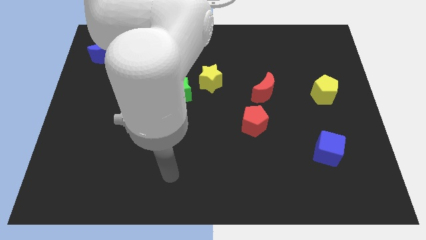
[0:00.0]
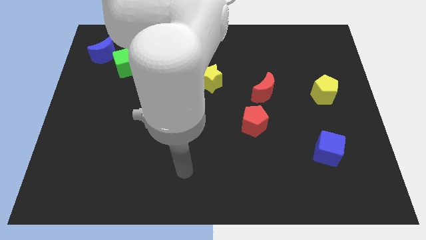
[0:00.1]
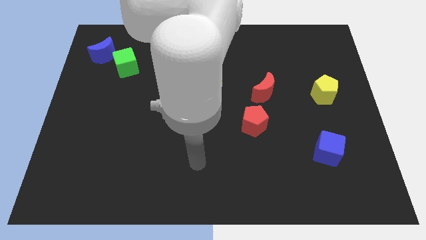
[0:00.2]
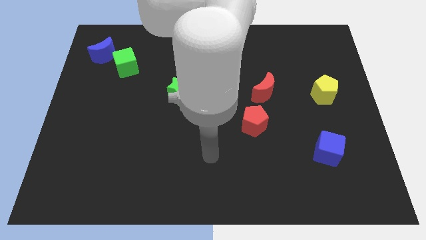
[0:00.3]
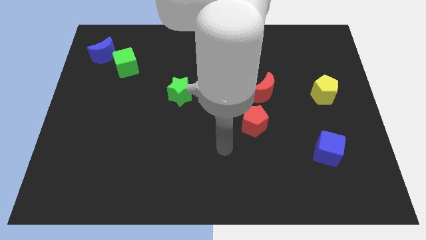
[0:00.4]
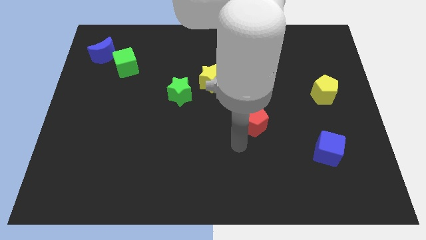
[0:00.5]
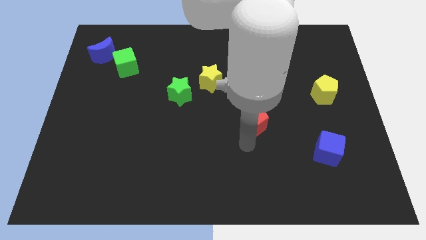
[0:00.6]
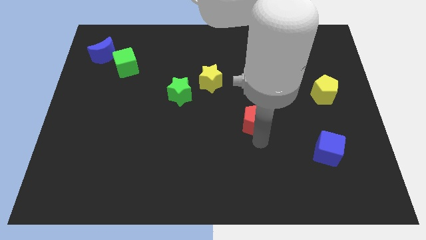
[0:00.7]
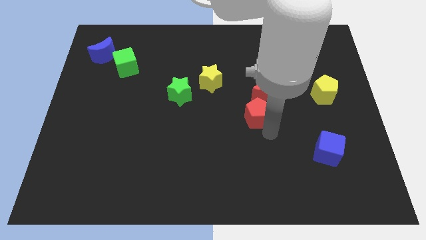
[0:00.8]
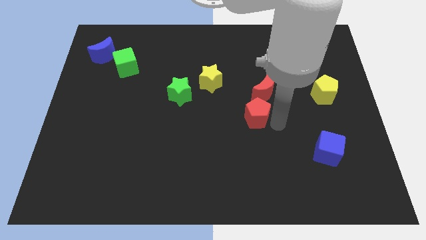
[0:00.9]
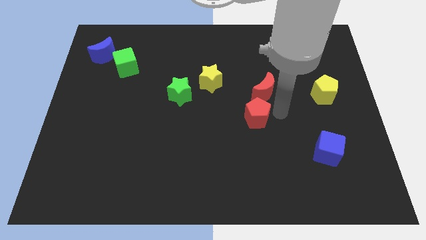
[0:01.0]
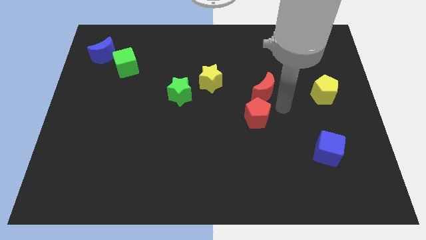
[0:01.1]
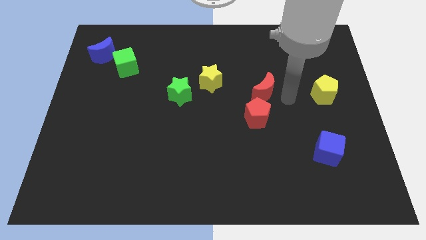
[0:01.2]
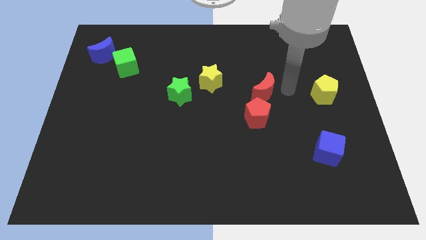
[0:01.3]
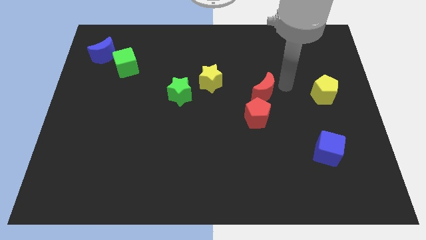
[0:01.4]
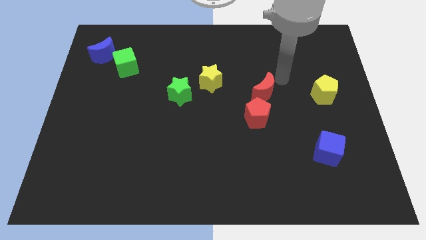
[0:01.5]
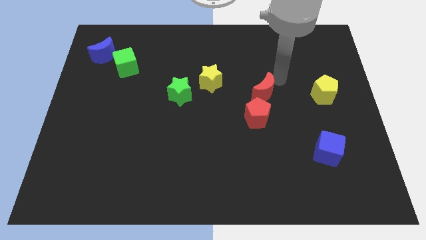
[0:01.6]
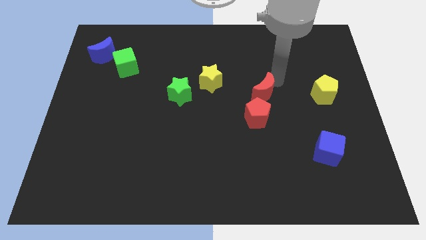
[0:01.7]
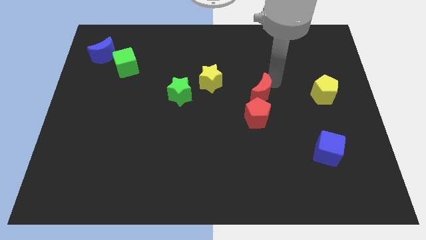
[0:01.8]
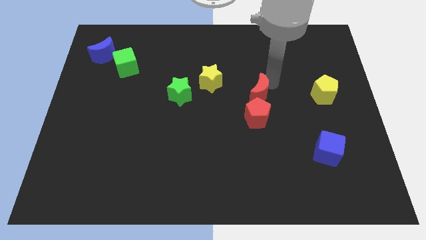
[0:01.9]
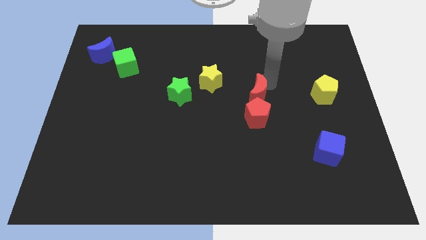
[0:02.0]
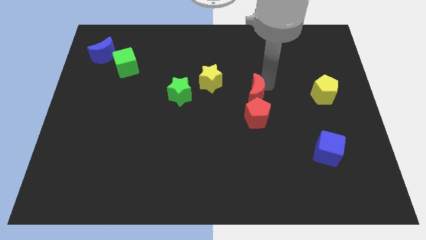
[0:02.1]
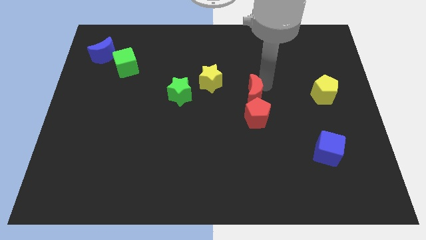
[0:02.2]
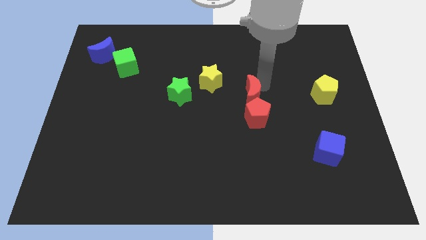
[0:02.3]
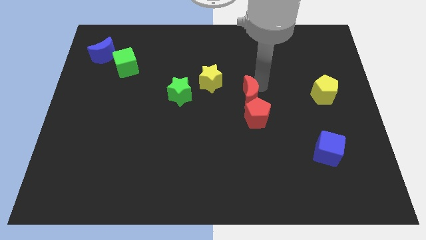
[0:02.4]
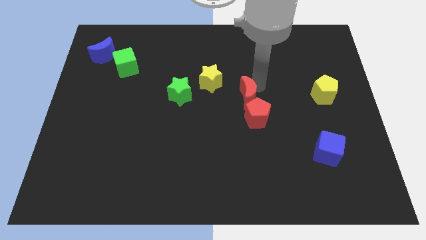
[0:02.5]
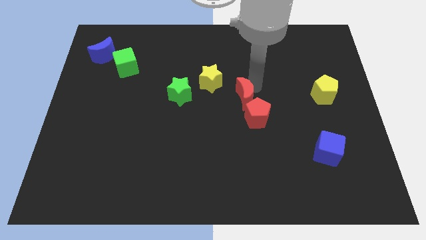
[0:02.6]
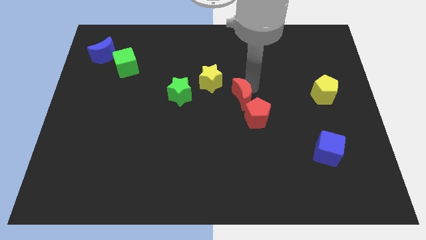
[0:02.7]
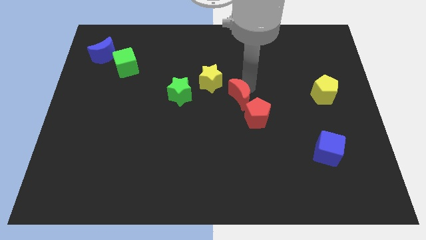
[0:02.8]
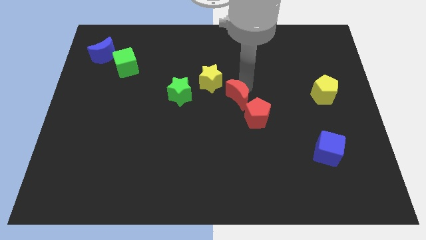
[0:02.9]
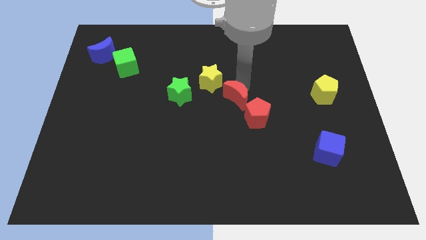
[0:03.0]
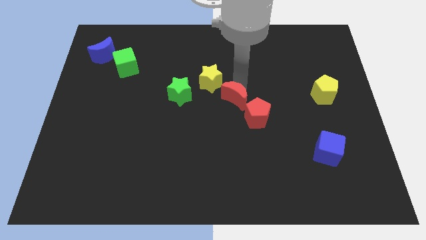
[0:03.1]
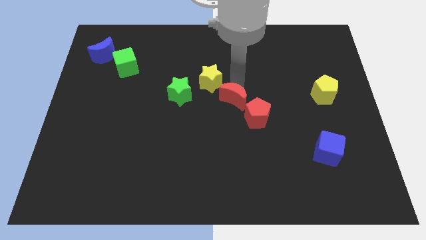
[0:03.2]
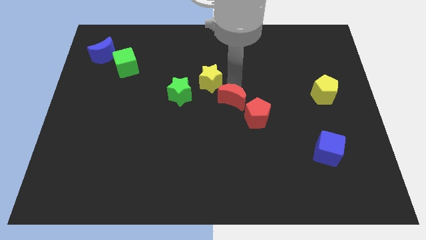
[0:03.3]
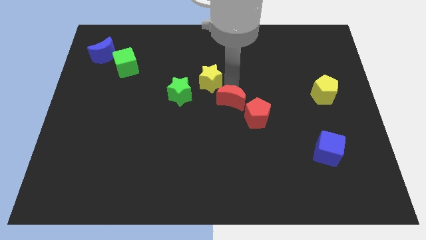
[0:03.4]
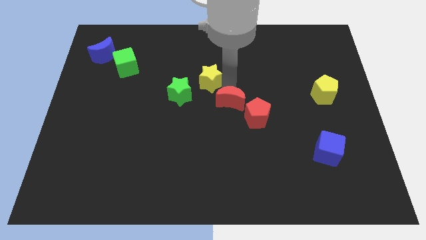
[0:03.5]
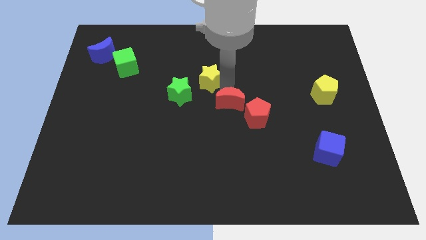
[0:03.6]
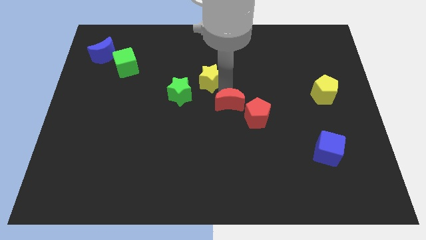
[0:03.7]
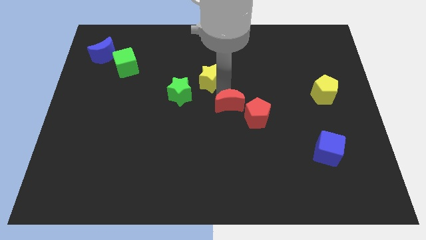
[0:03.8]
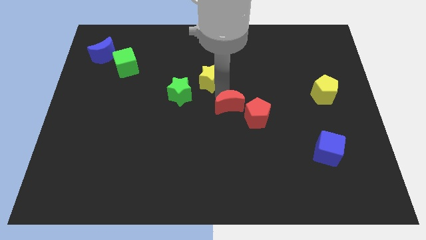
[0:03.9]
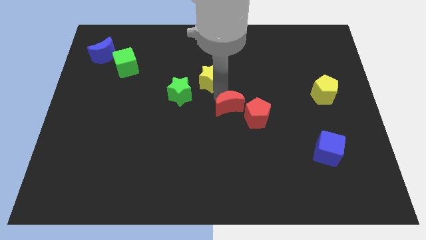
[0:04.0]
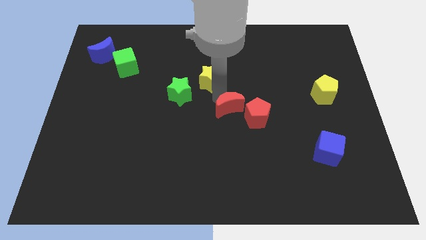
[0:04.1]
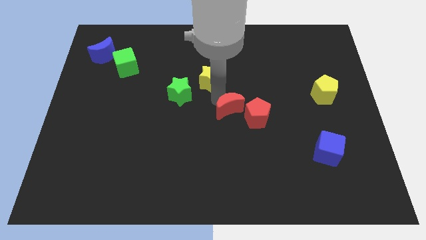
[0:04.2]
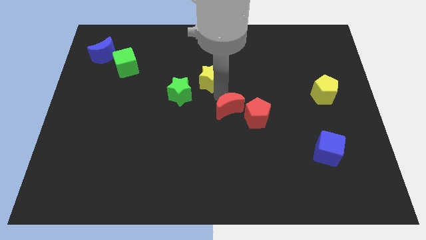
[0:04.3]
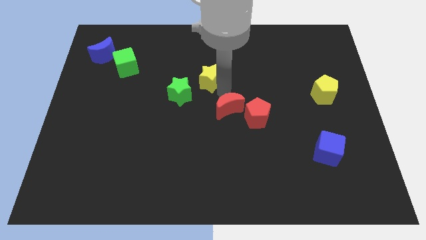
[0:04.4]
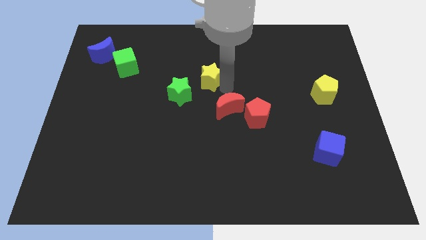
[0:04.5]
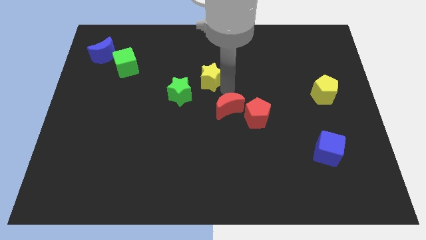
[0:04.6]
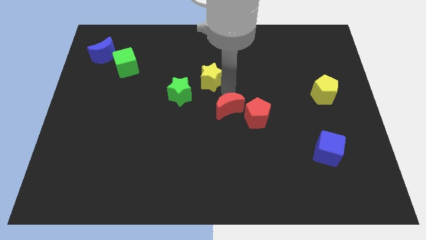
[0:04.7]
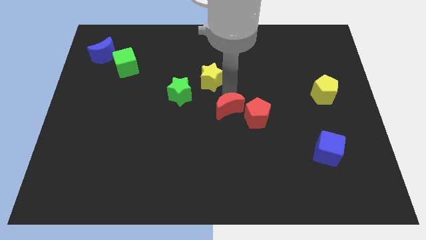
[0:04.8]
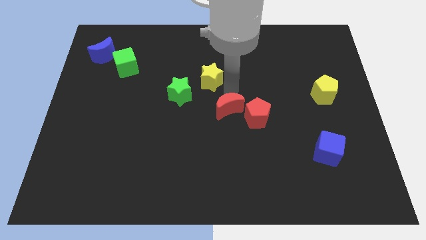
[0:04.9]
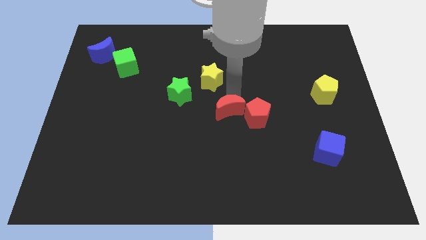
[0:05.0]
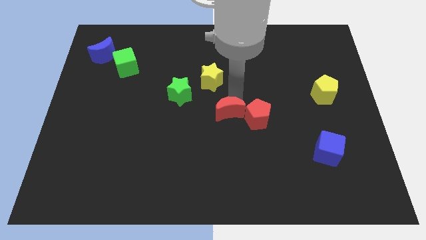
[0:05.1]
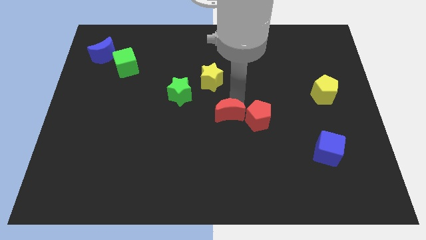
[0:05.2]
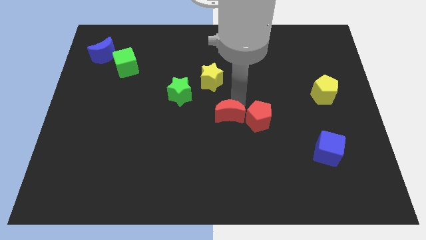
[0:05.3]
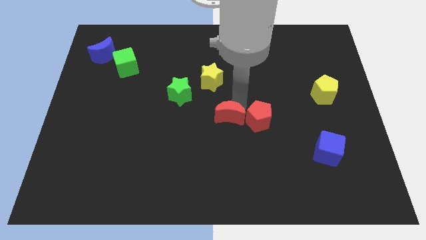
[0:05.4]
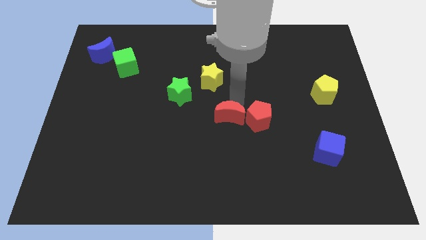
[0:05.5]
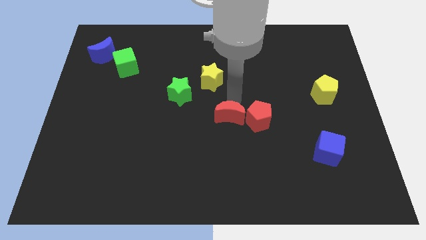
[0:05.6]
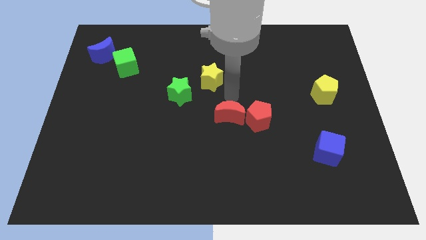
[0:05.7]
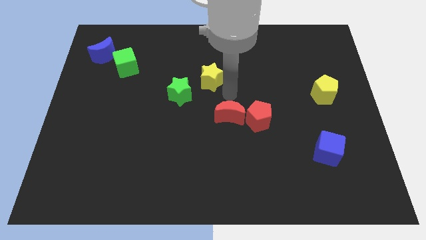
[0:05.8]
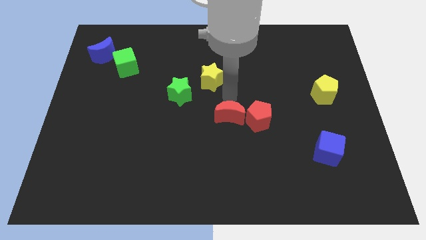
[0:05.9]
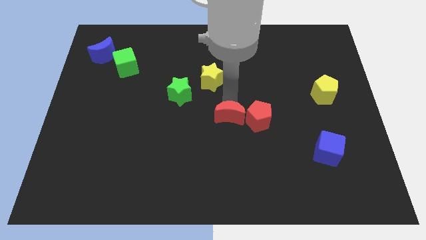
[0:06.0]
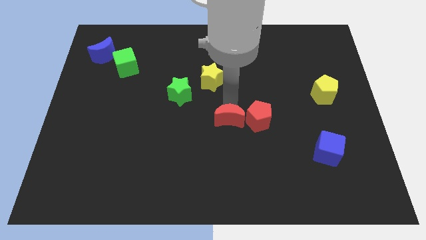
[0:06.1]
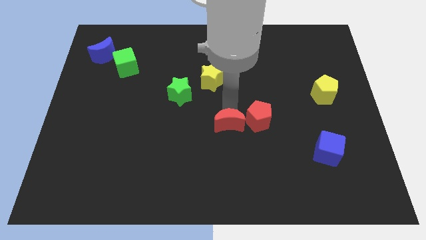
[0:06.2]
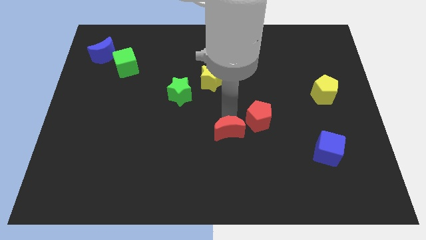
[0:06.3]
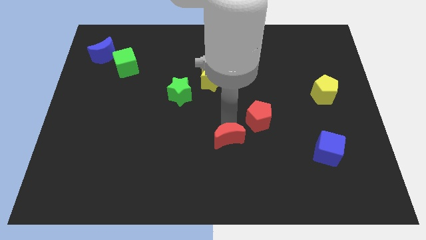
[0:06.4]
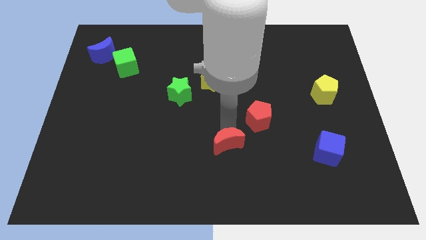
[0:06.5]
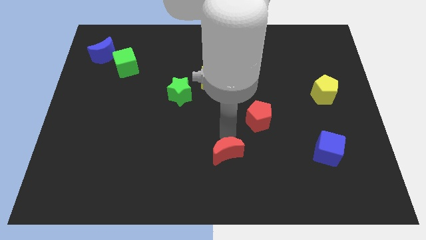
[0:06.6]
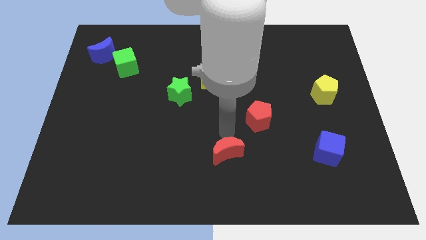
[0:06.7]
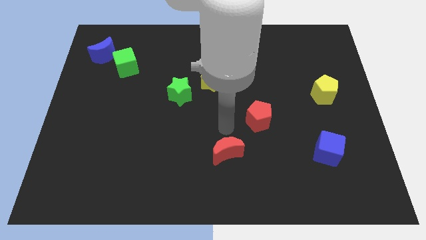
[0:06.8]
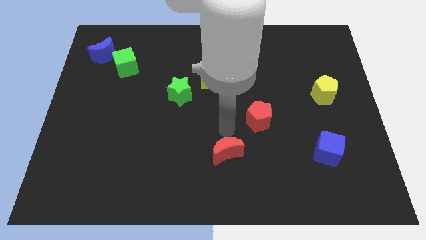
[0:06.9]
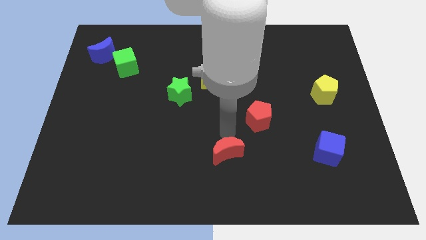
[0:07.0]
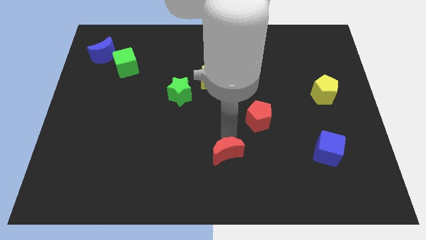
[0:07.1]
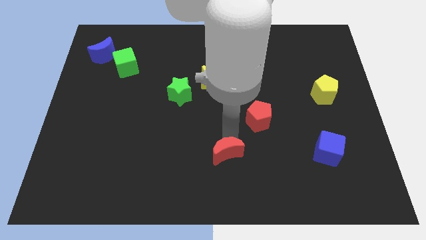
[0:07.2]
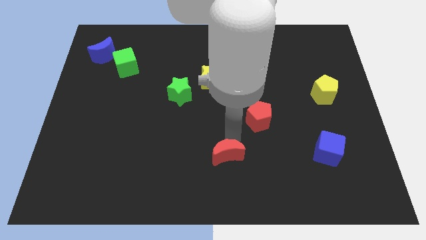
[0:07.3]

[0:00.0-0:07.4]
put the red moon to the bottom

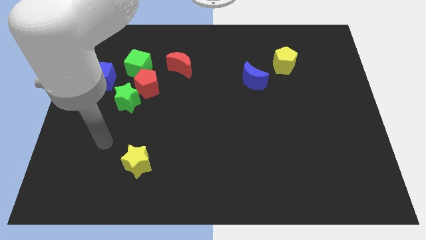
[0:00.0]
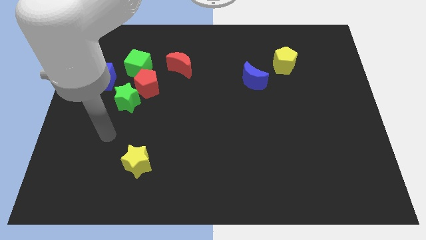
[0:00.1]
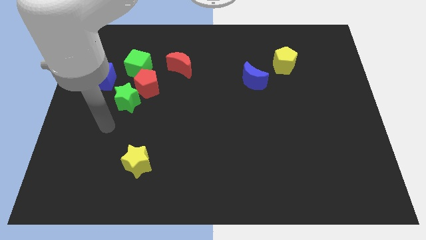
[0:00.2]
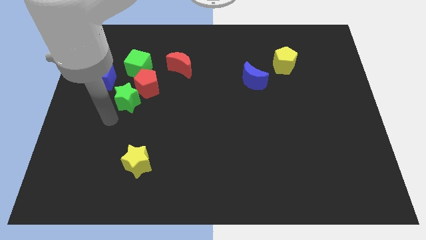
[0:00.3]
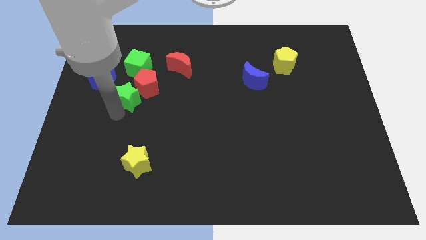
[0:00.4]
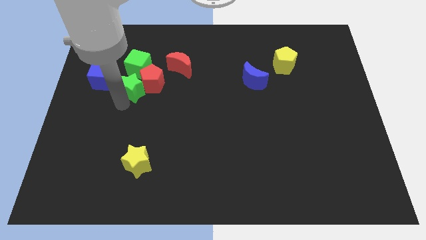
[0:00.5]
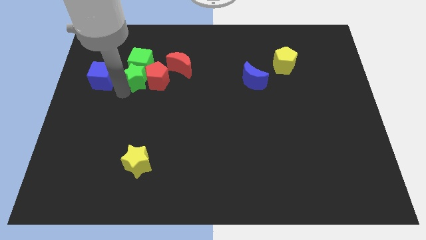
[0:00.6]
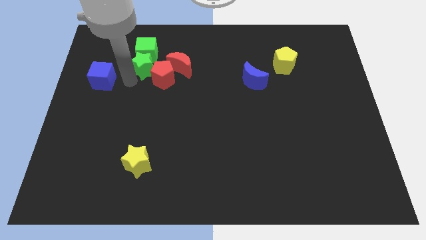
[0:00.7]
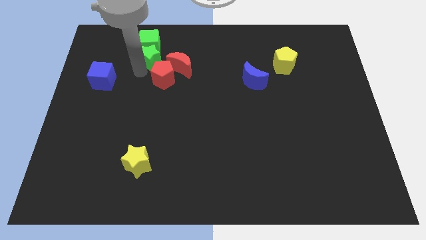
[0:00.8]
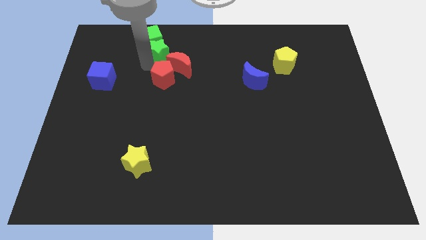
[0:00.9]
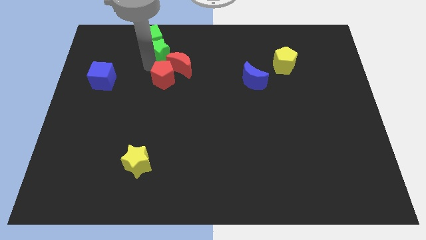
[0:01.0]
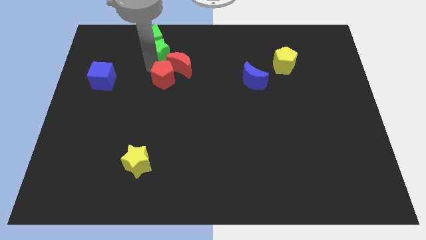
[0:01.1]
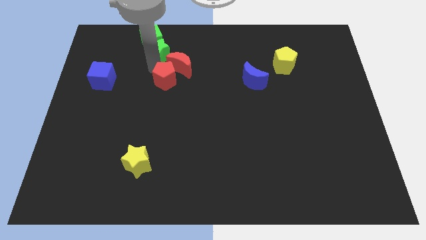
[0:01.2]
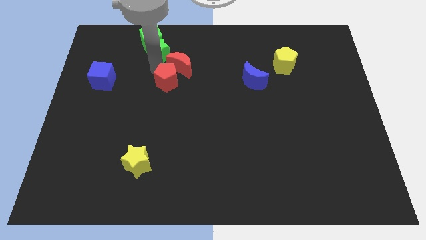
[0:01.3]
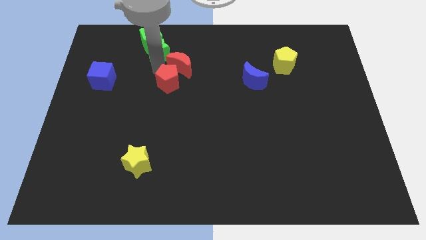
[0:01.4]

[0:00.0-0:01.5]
move the red pentagon to the middle
